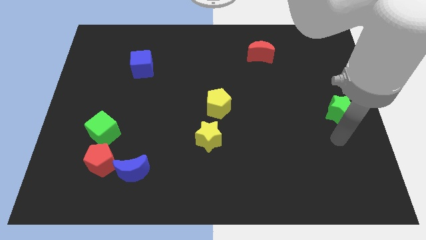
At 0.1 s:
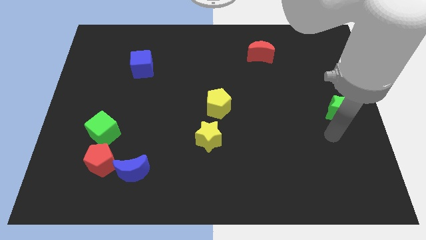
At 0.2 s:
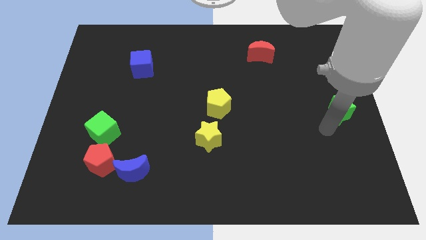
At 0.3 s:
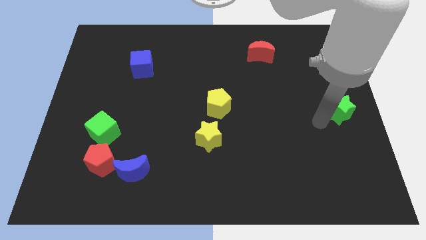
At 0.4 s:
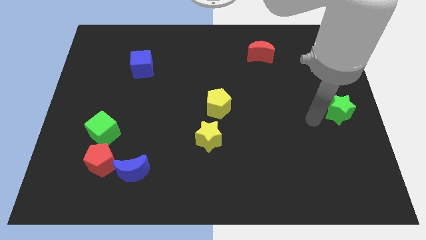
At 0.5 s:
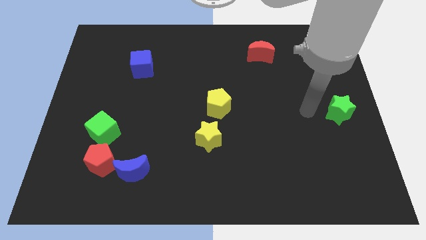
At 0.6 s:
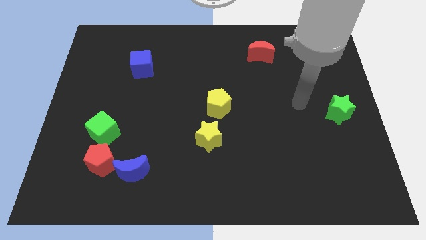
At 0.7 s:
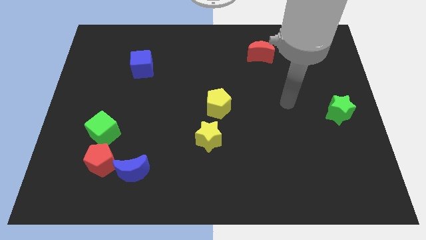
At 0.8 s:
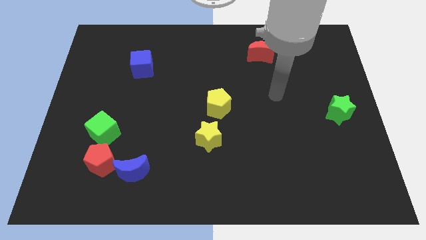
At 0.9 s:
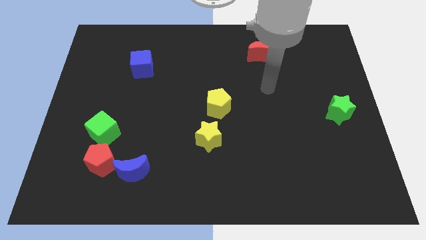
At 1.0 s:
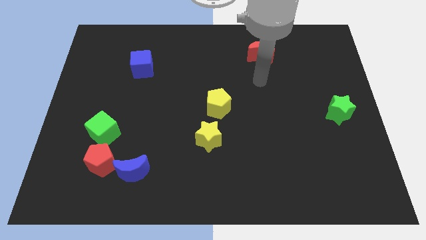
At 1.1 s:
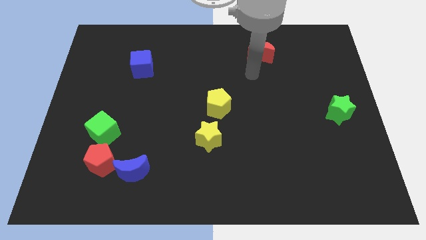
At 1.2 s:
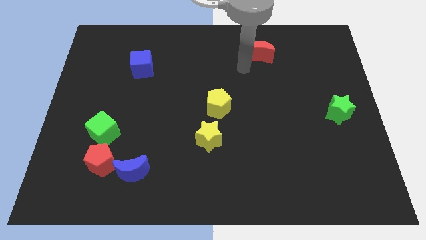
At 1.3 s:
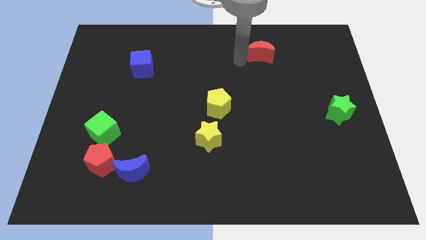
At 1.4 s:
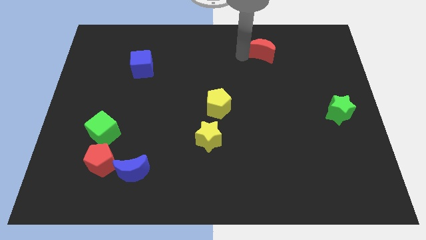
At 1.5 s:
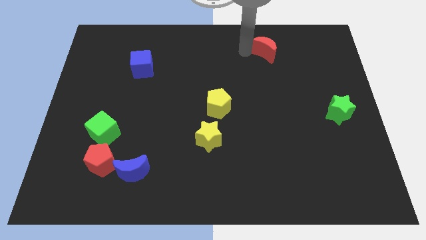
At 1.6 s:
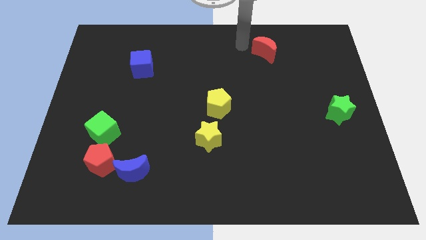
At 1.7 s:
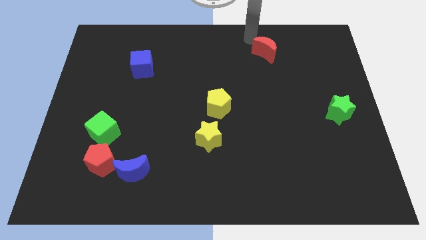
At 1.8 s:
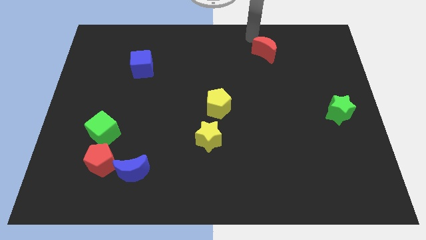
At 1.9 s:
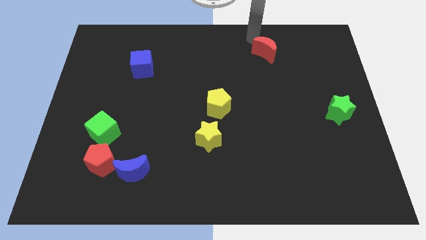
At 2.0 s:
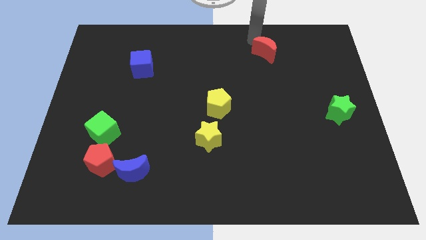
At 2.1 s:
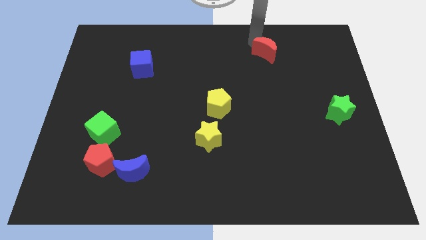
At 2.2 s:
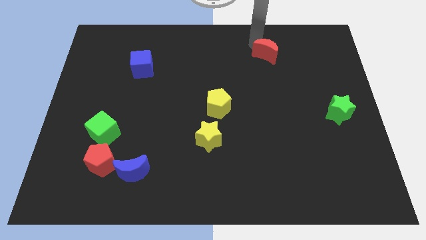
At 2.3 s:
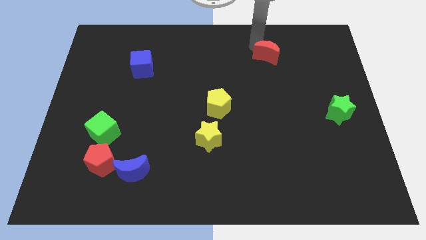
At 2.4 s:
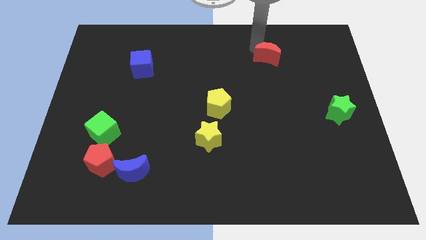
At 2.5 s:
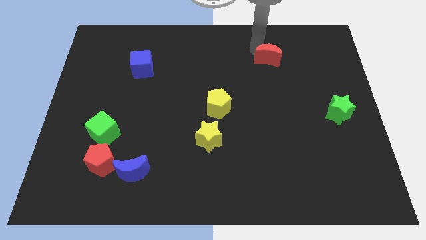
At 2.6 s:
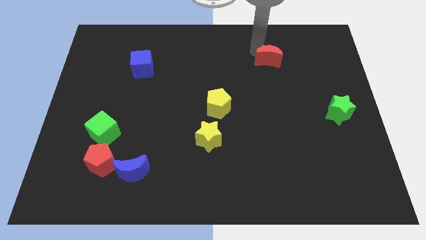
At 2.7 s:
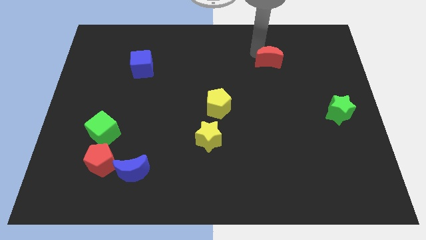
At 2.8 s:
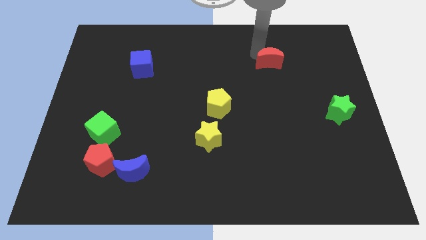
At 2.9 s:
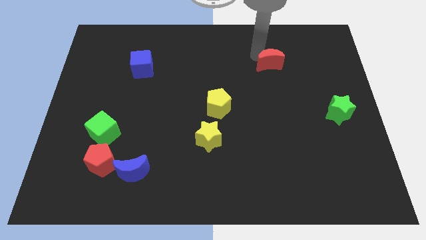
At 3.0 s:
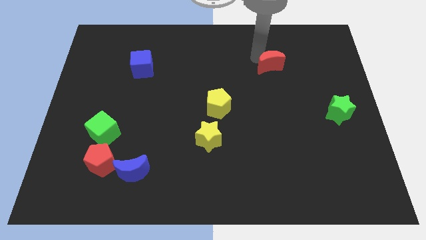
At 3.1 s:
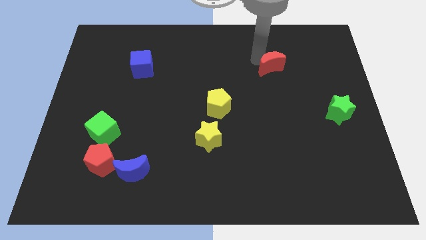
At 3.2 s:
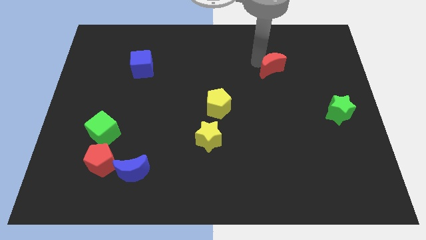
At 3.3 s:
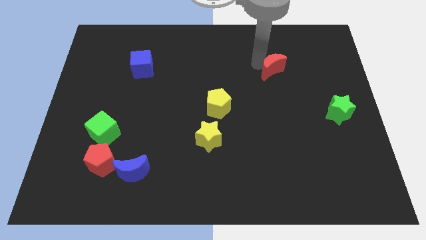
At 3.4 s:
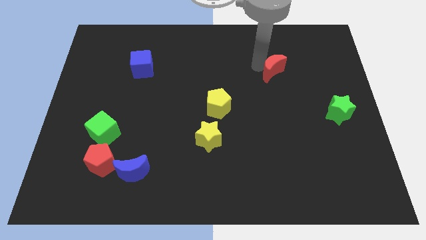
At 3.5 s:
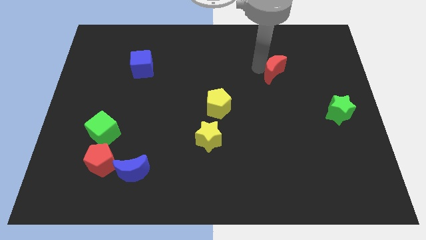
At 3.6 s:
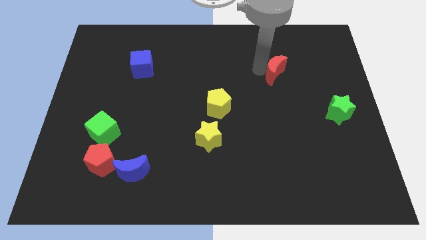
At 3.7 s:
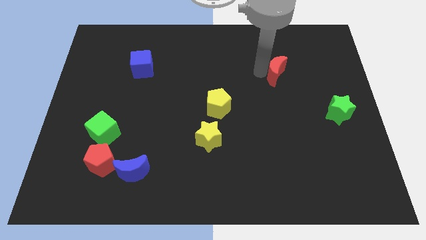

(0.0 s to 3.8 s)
slide the red moon diagonally down and right a bit

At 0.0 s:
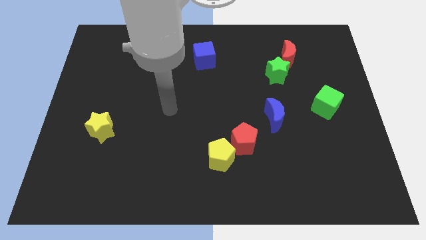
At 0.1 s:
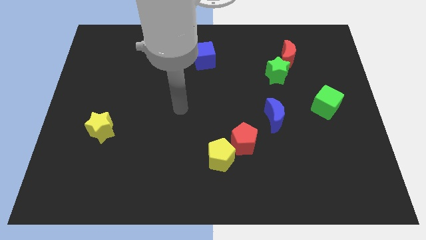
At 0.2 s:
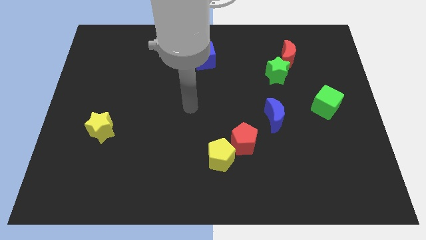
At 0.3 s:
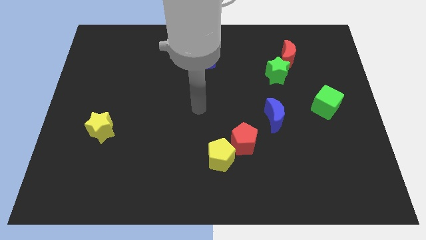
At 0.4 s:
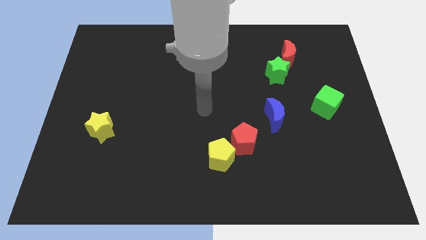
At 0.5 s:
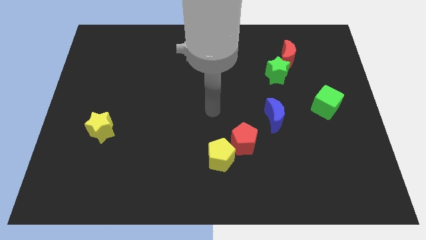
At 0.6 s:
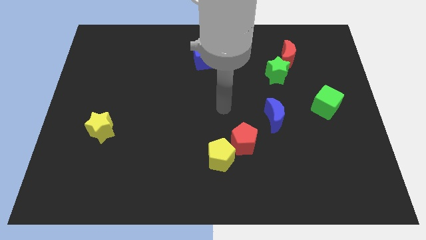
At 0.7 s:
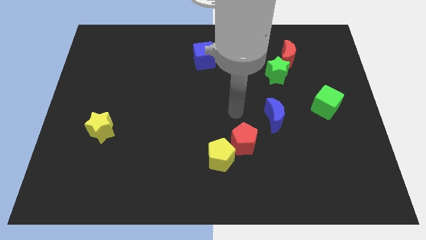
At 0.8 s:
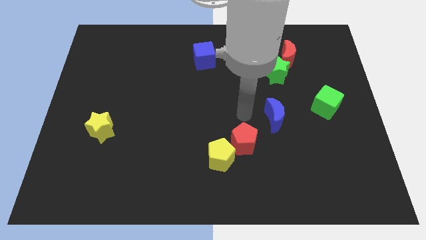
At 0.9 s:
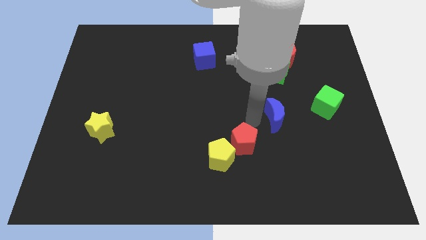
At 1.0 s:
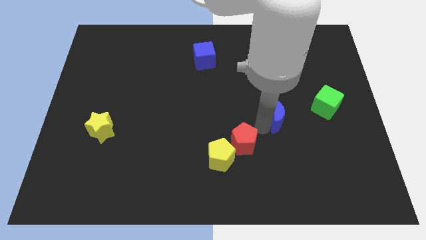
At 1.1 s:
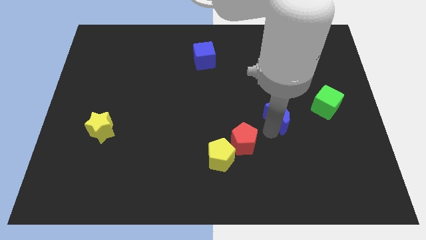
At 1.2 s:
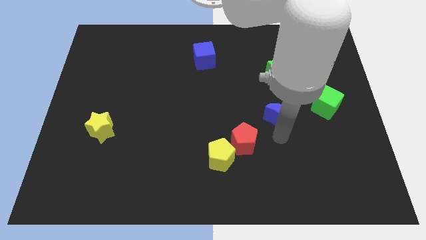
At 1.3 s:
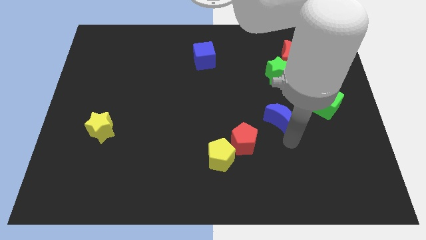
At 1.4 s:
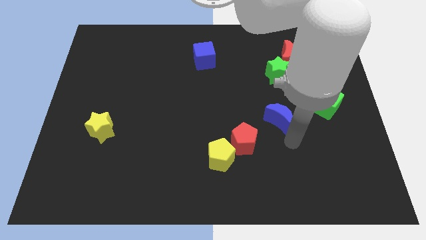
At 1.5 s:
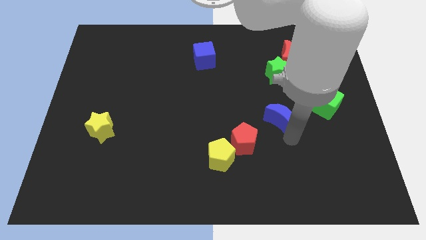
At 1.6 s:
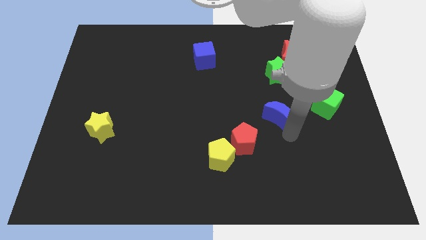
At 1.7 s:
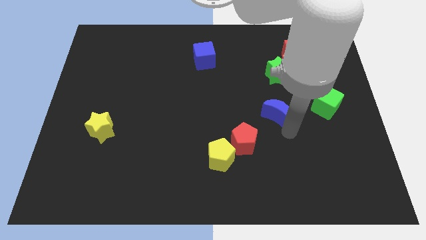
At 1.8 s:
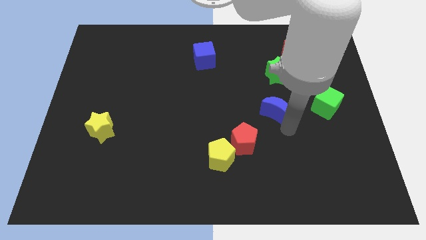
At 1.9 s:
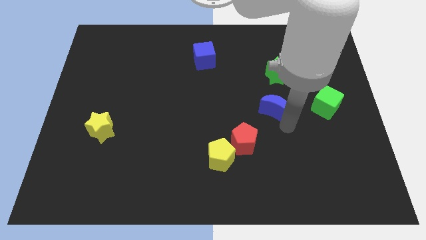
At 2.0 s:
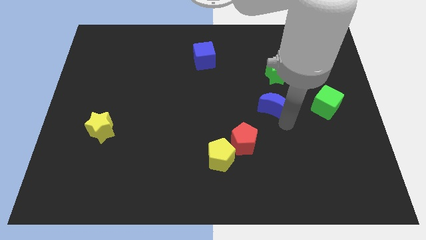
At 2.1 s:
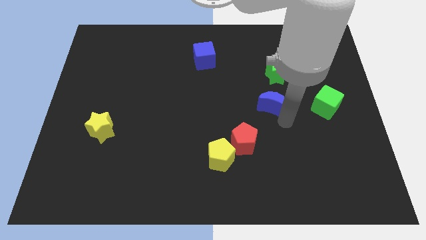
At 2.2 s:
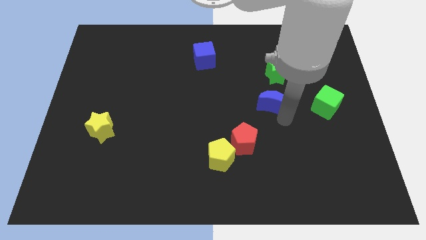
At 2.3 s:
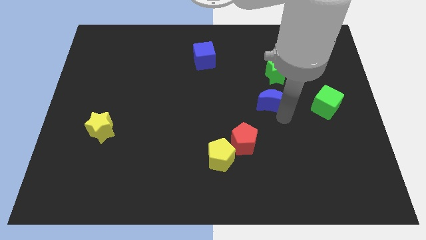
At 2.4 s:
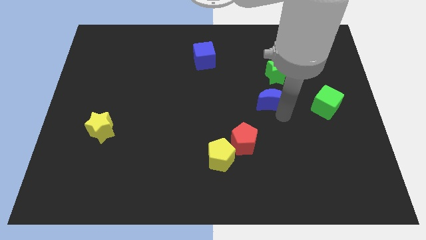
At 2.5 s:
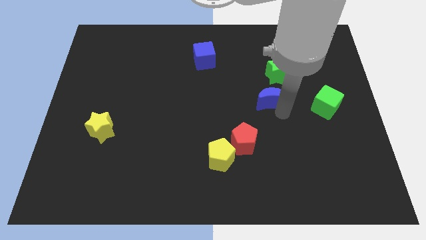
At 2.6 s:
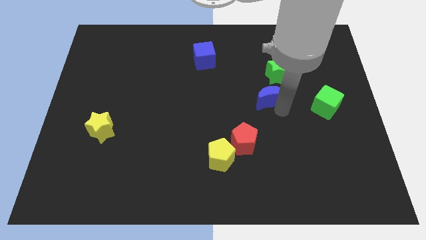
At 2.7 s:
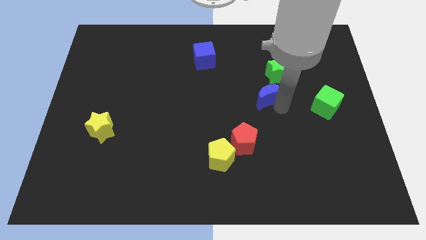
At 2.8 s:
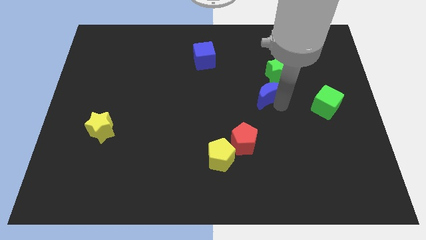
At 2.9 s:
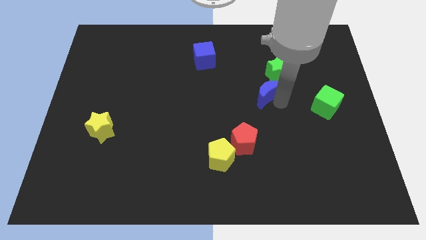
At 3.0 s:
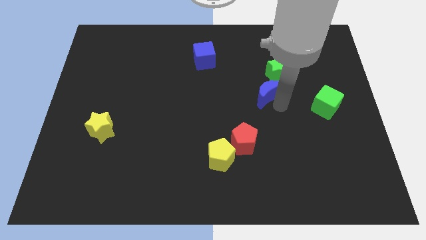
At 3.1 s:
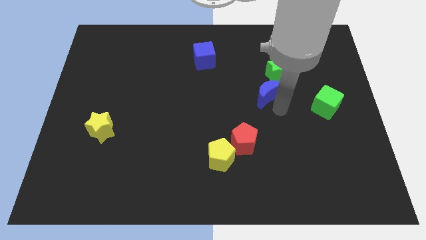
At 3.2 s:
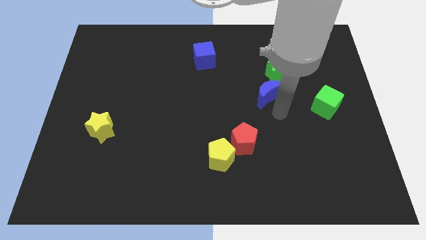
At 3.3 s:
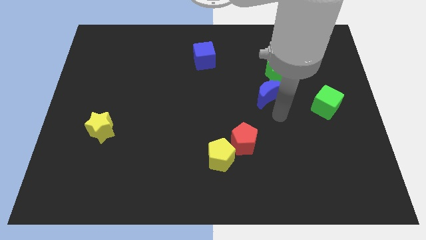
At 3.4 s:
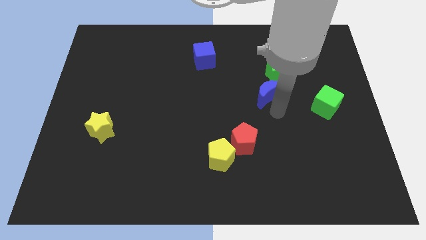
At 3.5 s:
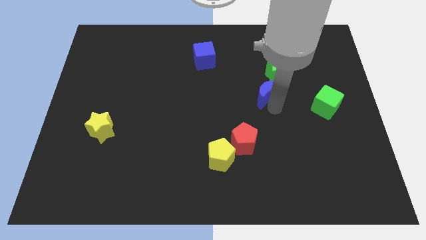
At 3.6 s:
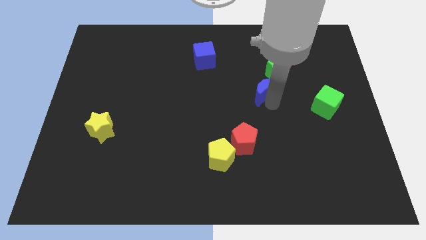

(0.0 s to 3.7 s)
slightly move the blue moon up

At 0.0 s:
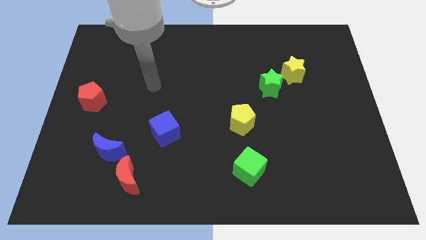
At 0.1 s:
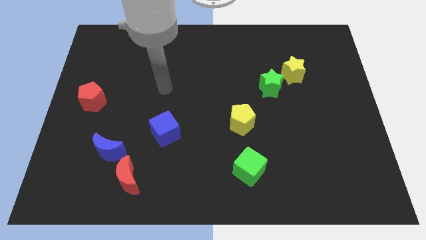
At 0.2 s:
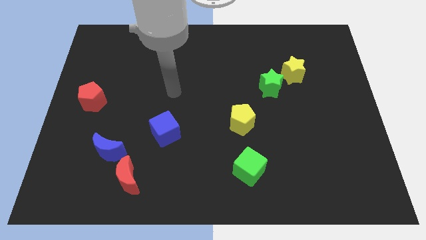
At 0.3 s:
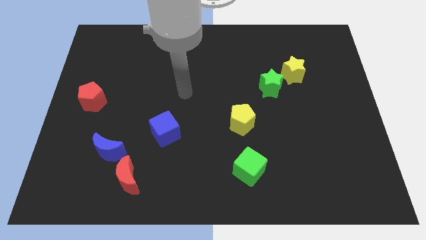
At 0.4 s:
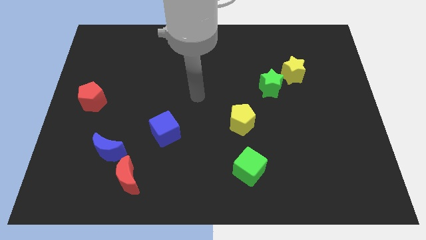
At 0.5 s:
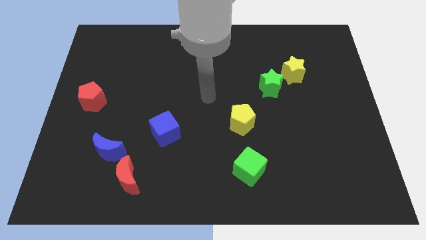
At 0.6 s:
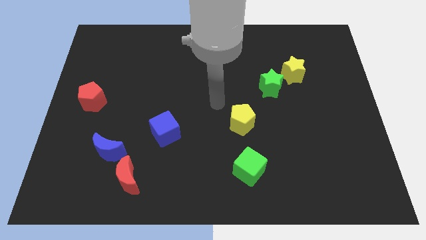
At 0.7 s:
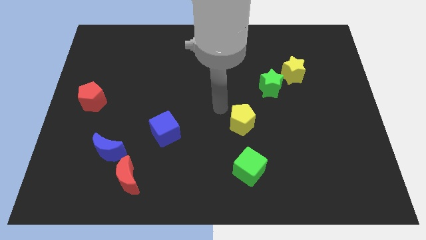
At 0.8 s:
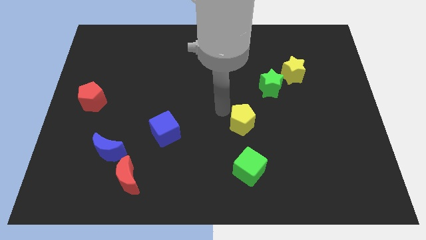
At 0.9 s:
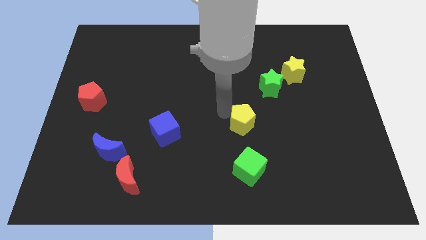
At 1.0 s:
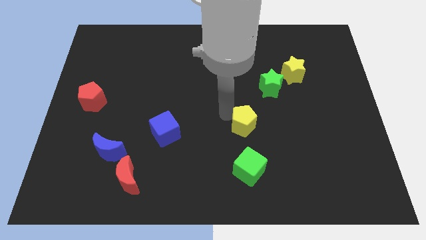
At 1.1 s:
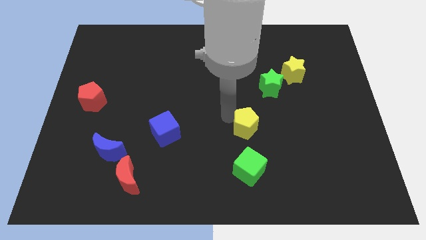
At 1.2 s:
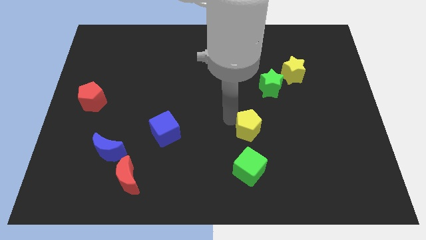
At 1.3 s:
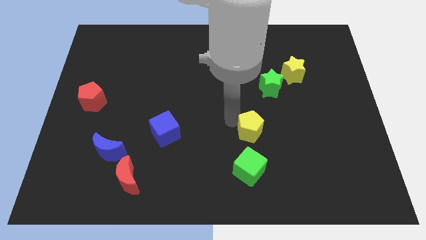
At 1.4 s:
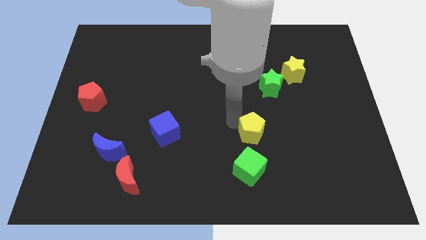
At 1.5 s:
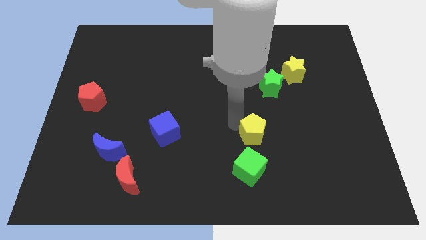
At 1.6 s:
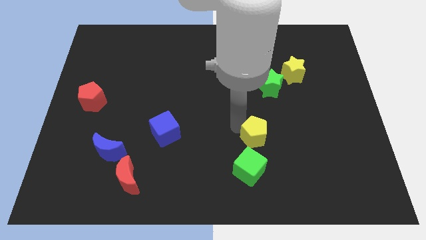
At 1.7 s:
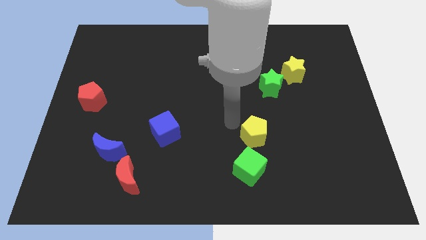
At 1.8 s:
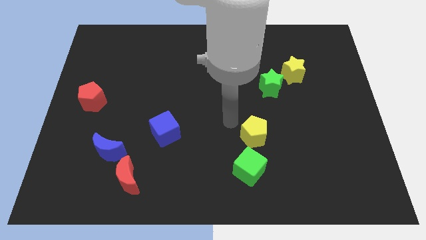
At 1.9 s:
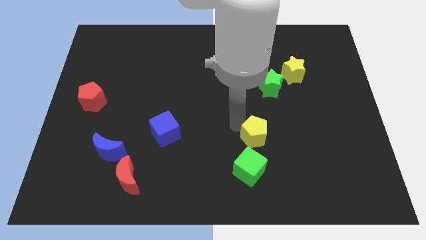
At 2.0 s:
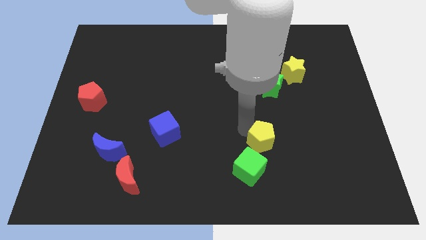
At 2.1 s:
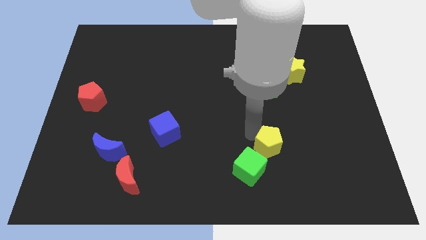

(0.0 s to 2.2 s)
slightly push the yellow pentagon down and then to the right
